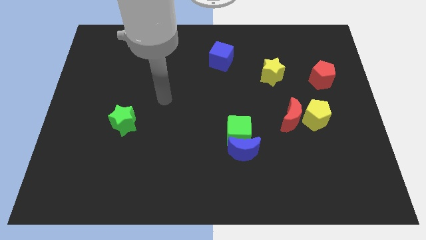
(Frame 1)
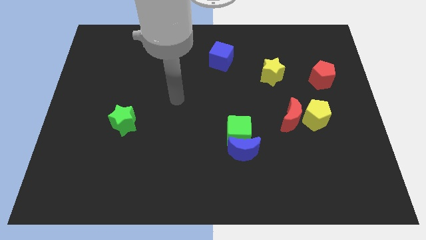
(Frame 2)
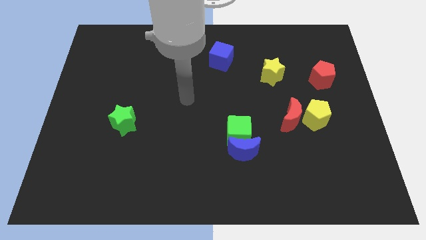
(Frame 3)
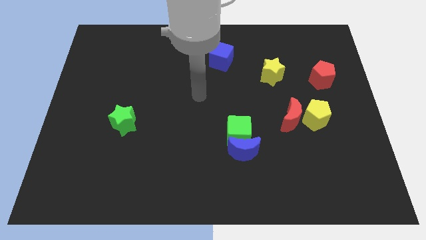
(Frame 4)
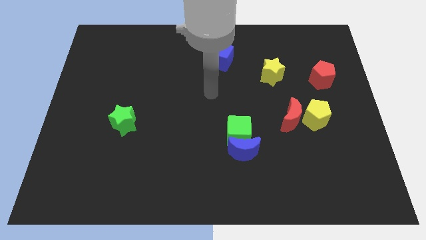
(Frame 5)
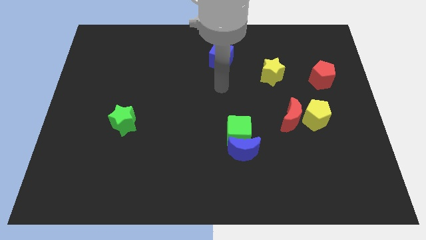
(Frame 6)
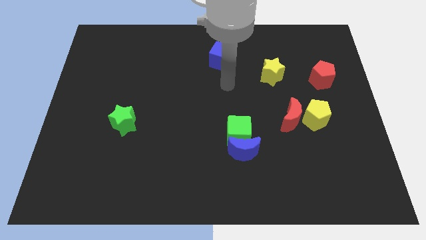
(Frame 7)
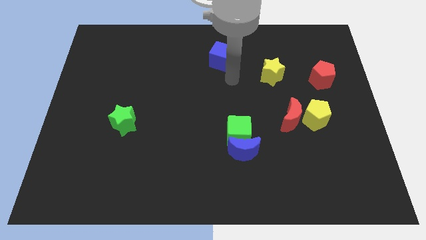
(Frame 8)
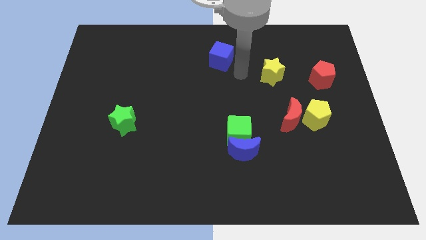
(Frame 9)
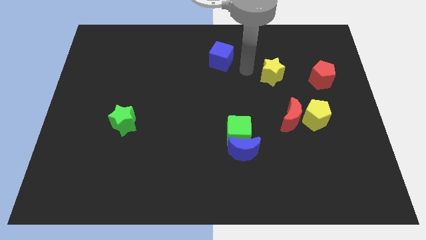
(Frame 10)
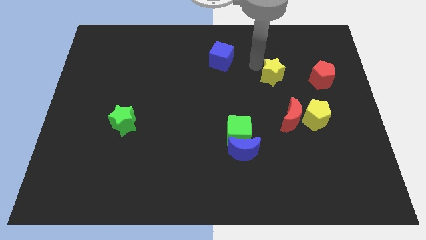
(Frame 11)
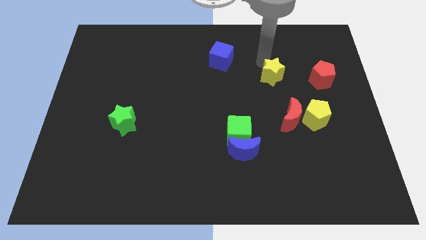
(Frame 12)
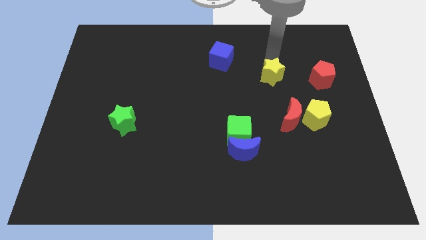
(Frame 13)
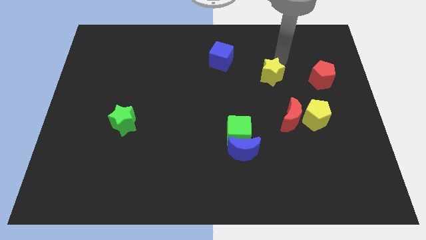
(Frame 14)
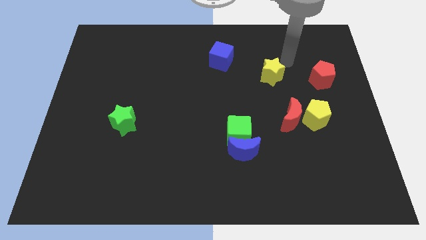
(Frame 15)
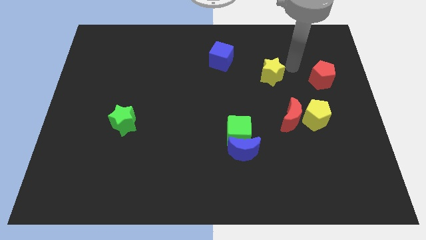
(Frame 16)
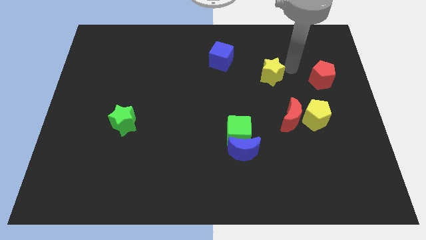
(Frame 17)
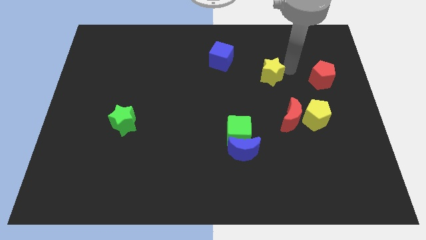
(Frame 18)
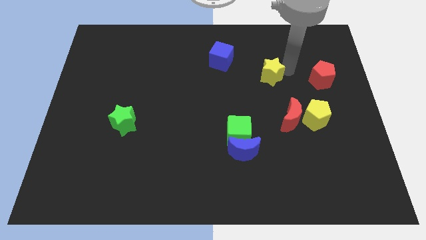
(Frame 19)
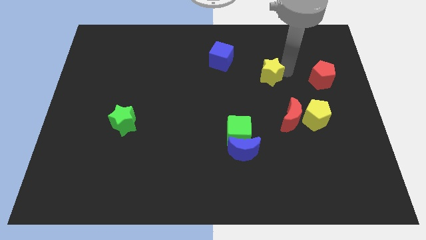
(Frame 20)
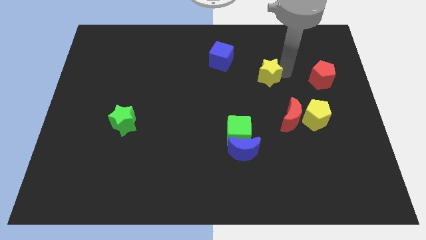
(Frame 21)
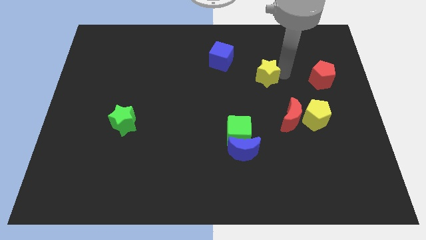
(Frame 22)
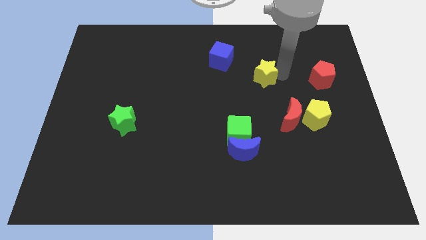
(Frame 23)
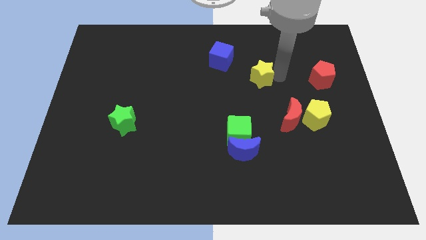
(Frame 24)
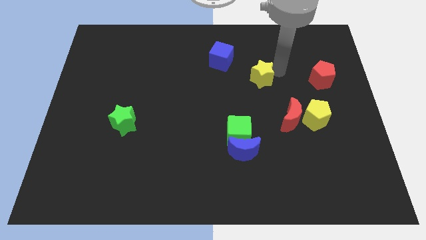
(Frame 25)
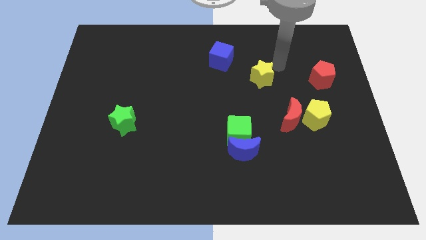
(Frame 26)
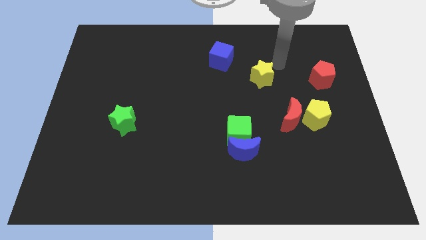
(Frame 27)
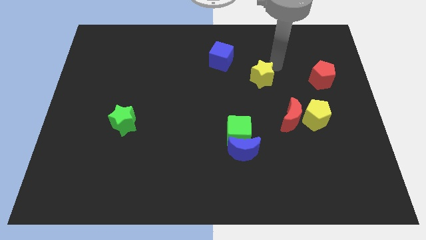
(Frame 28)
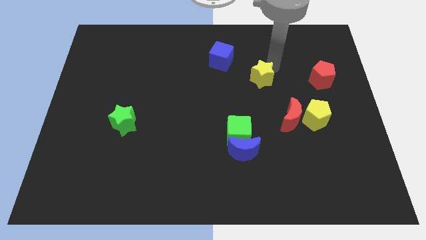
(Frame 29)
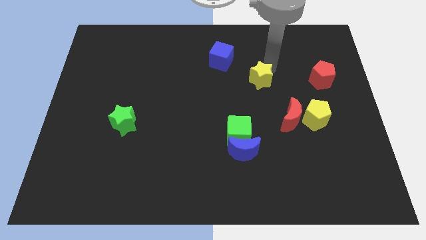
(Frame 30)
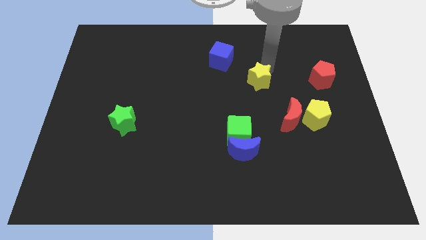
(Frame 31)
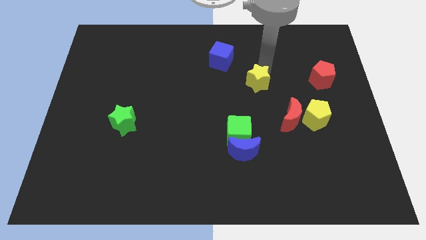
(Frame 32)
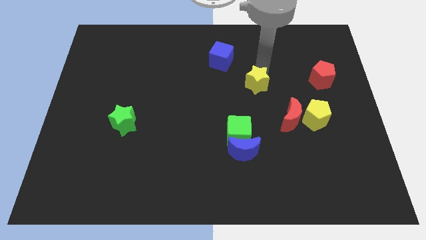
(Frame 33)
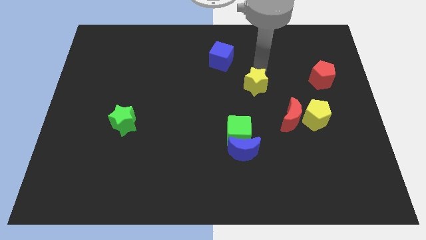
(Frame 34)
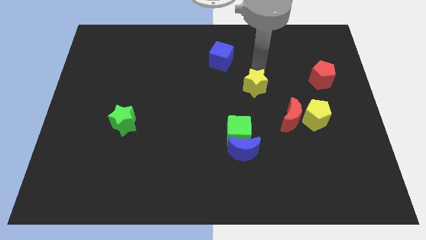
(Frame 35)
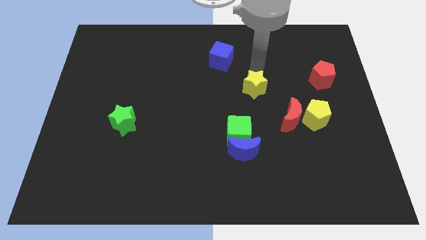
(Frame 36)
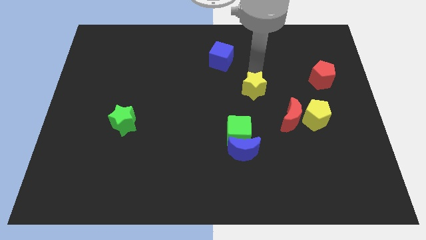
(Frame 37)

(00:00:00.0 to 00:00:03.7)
slide the yellow star diagonally downwards and to the left slightly

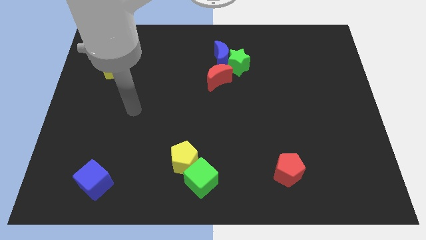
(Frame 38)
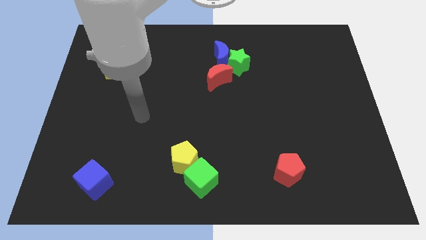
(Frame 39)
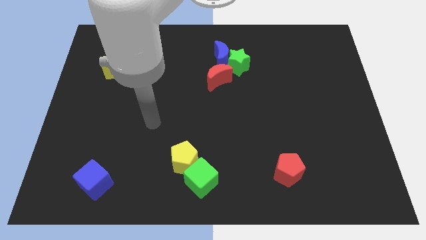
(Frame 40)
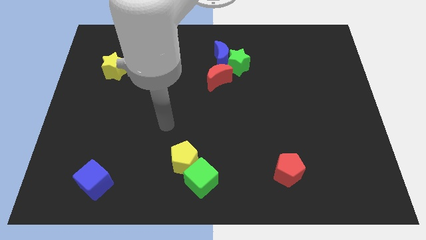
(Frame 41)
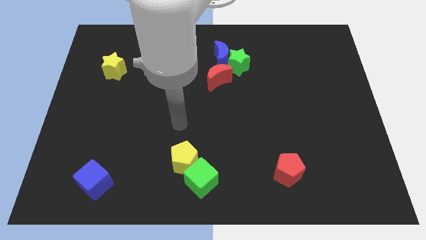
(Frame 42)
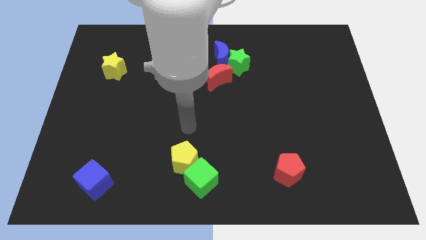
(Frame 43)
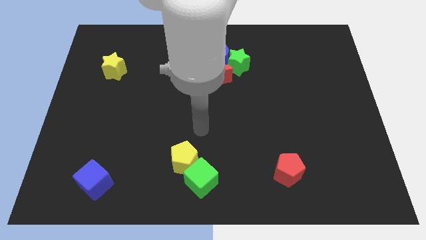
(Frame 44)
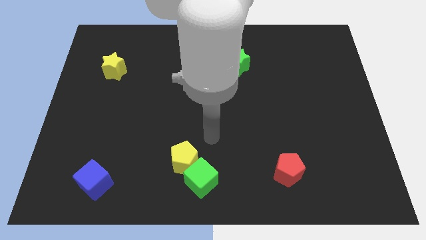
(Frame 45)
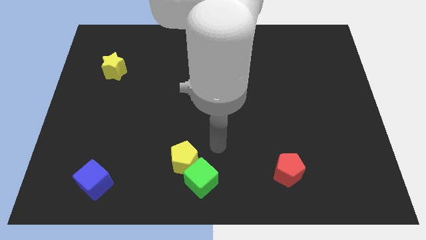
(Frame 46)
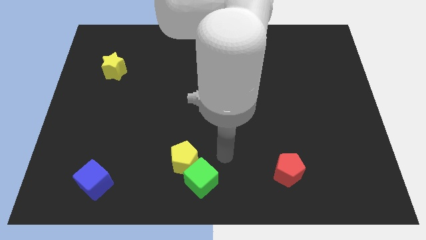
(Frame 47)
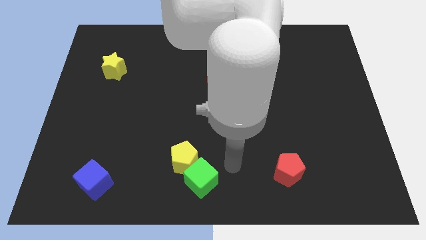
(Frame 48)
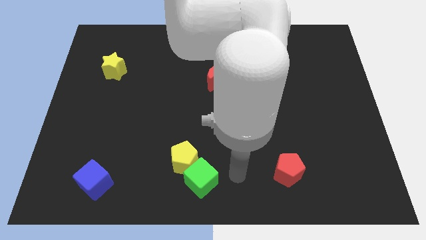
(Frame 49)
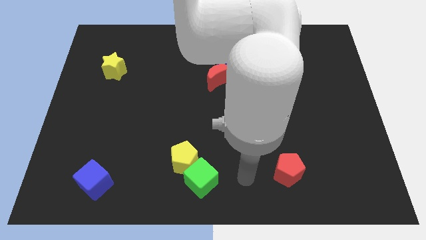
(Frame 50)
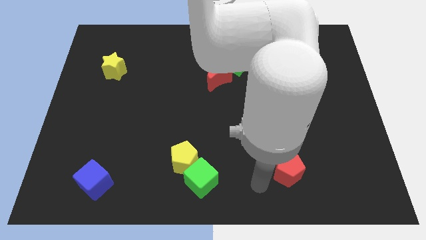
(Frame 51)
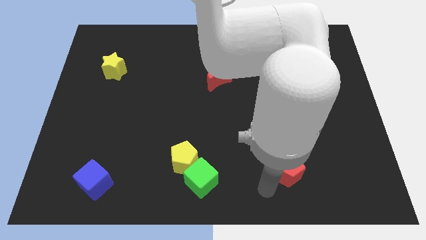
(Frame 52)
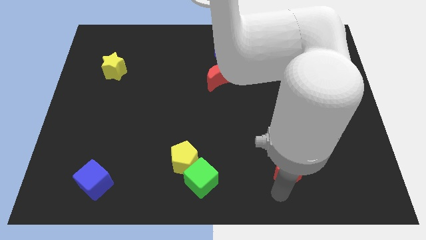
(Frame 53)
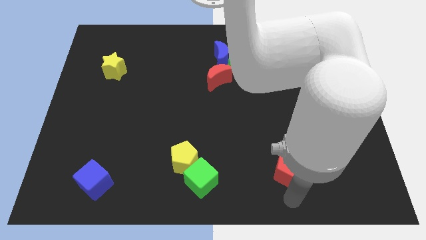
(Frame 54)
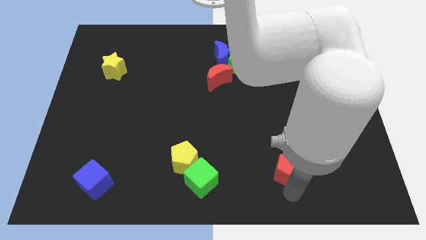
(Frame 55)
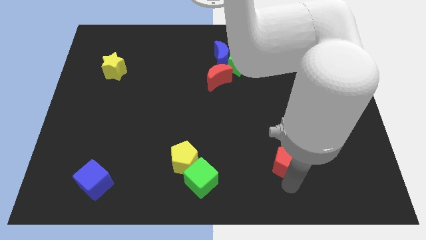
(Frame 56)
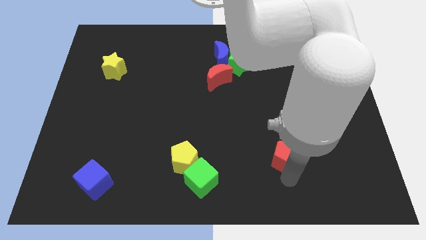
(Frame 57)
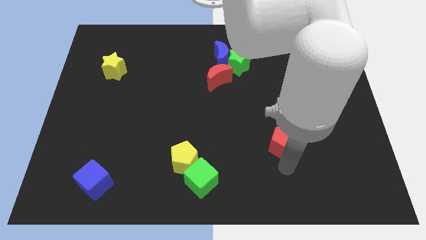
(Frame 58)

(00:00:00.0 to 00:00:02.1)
move the red pentagon a little bit up

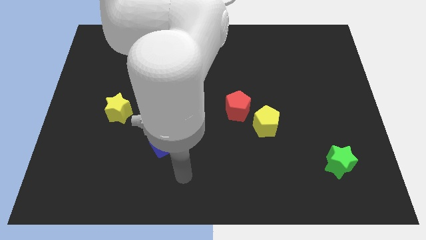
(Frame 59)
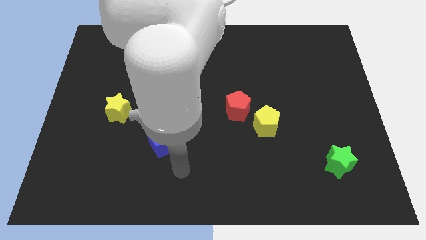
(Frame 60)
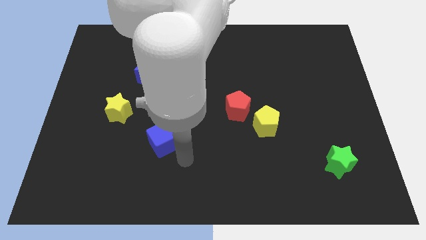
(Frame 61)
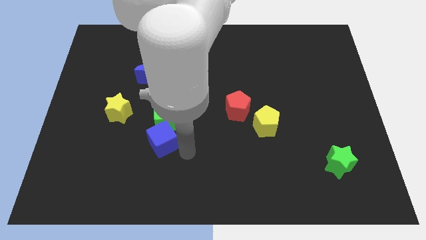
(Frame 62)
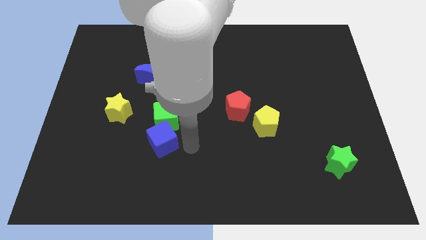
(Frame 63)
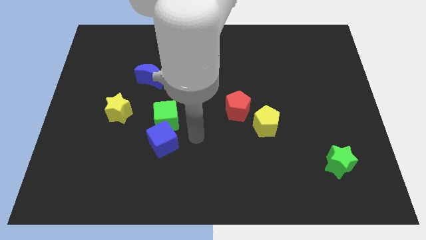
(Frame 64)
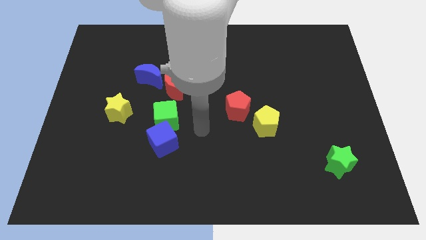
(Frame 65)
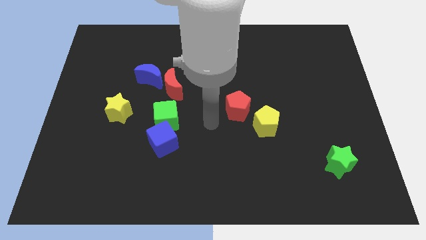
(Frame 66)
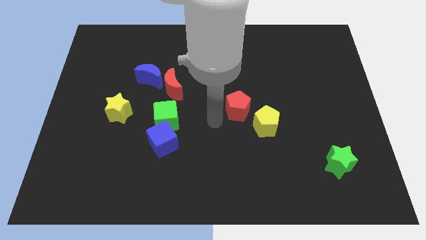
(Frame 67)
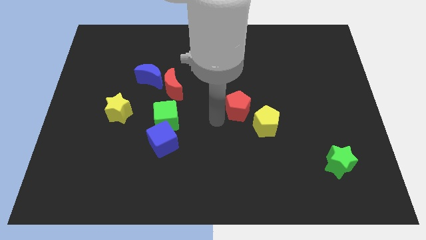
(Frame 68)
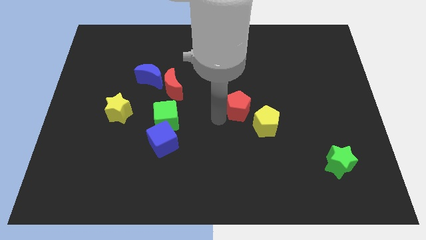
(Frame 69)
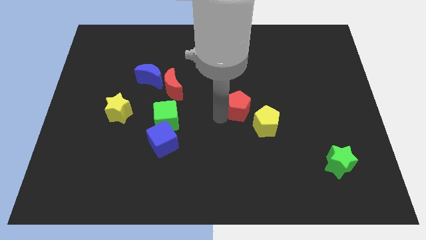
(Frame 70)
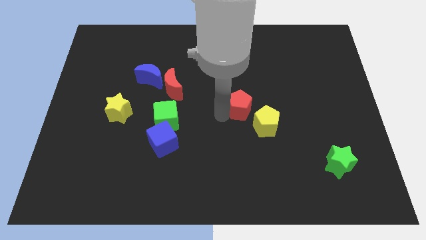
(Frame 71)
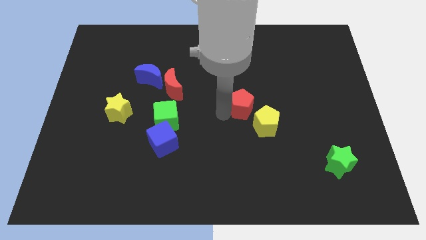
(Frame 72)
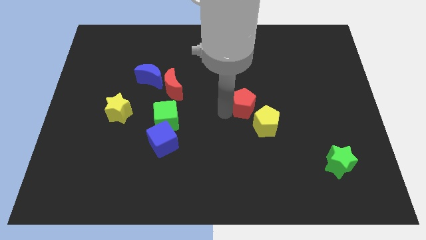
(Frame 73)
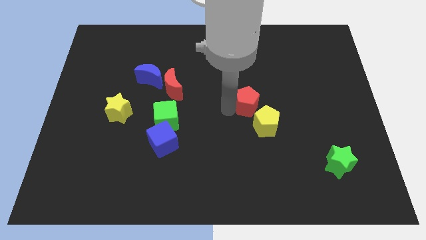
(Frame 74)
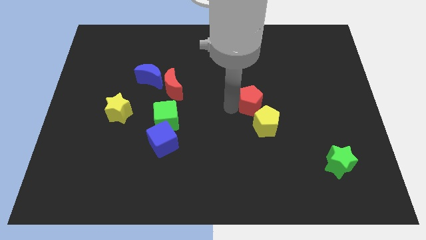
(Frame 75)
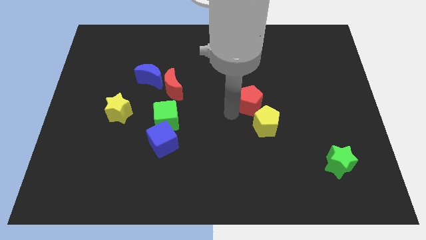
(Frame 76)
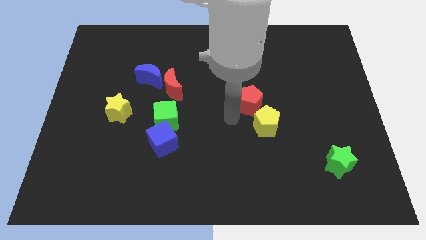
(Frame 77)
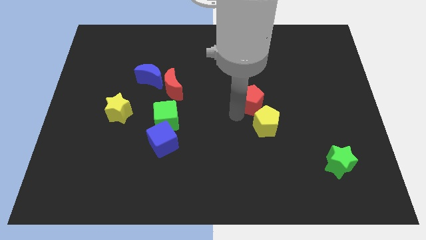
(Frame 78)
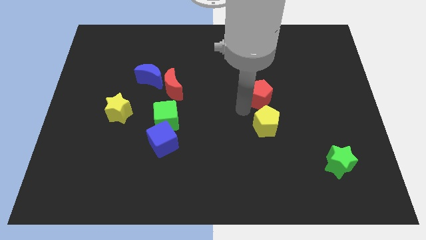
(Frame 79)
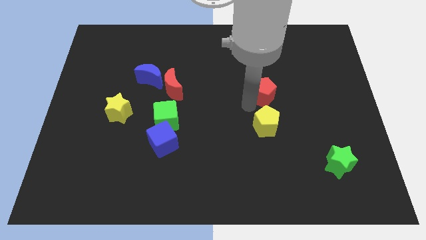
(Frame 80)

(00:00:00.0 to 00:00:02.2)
move the red pentagon diagonally upwards and right slightly

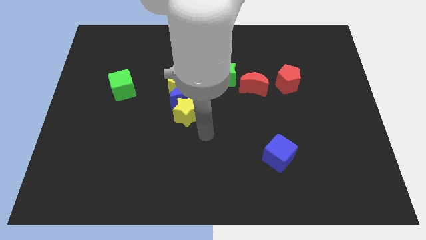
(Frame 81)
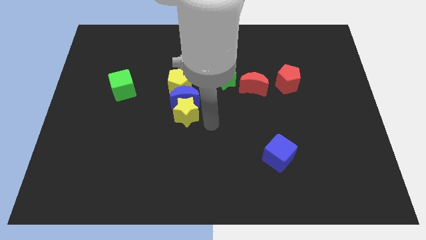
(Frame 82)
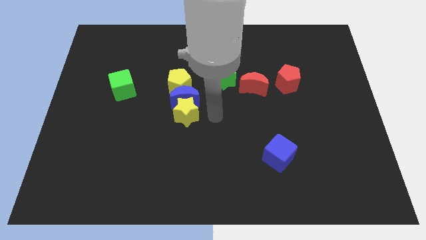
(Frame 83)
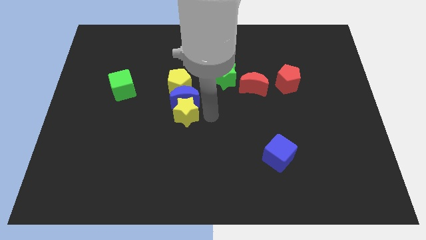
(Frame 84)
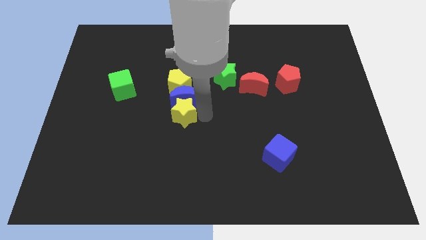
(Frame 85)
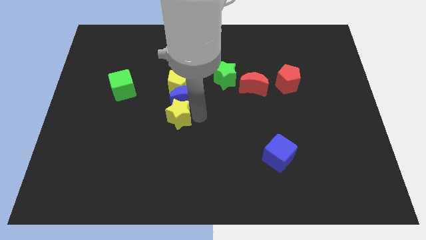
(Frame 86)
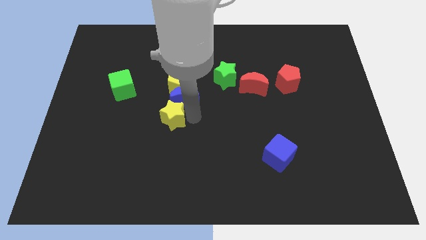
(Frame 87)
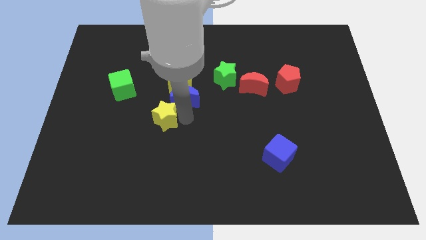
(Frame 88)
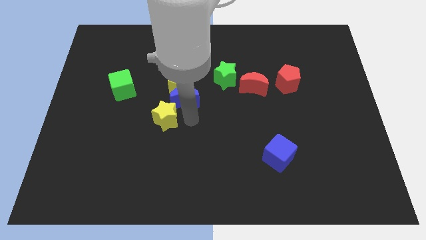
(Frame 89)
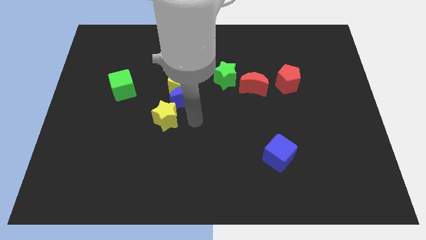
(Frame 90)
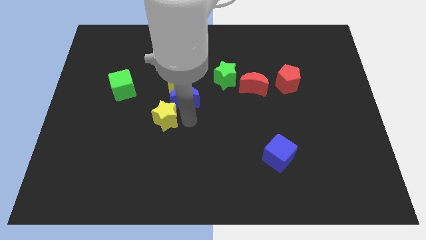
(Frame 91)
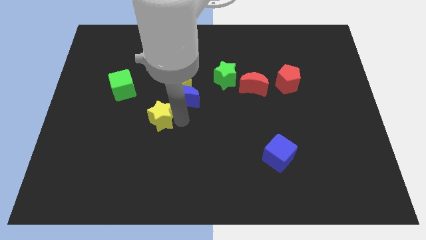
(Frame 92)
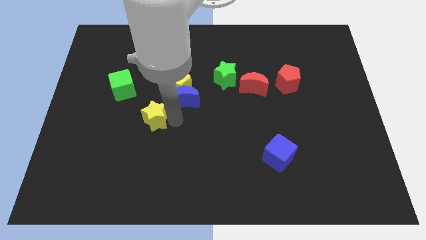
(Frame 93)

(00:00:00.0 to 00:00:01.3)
slide the yellow star a bit to the left
